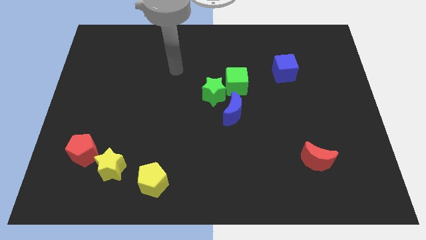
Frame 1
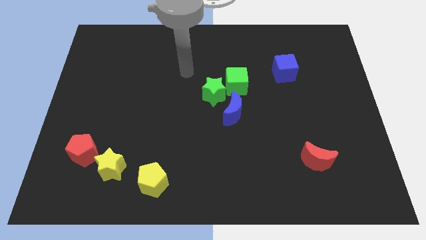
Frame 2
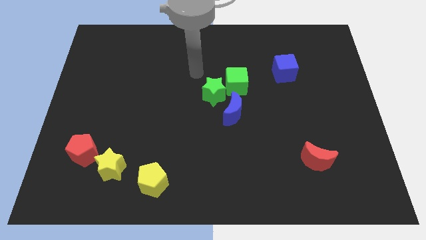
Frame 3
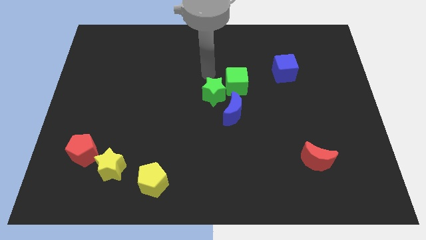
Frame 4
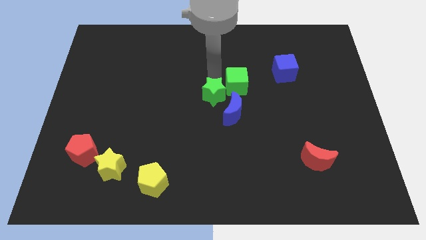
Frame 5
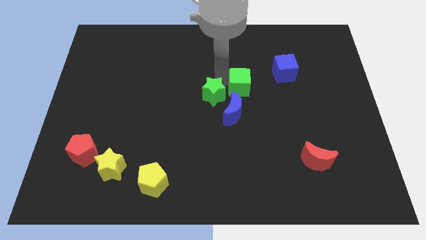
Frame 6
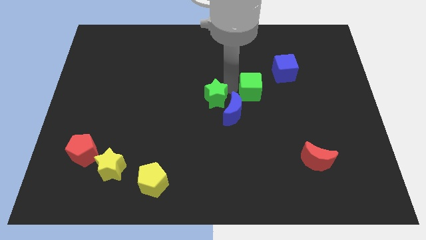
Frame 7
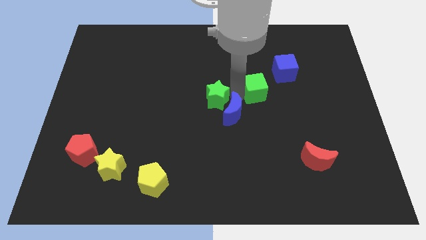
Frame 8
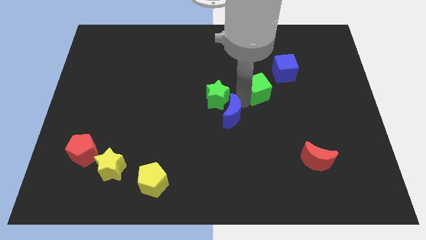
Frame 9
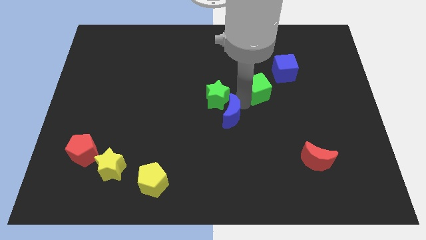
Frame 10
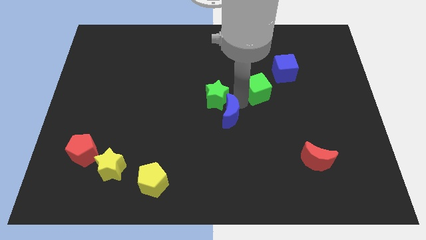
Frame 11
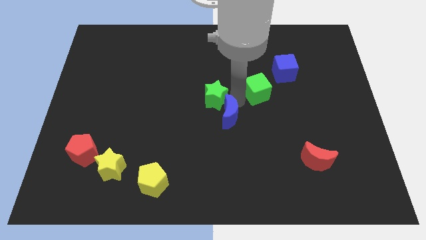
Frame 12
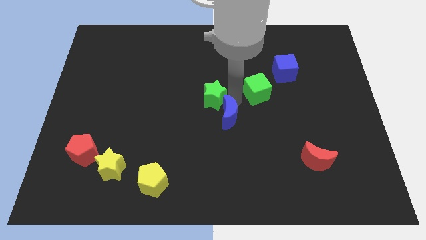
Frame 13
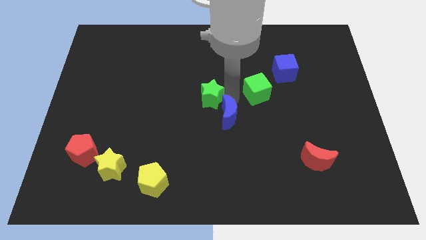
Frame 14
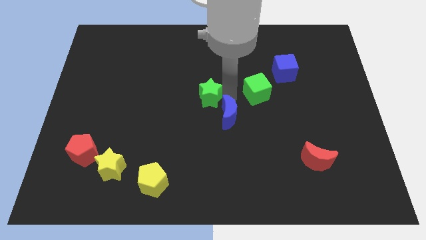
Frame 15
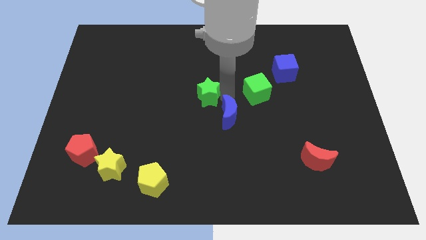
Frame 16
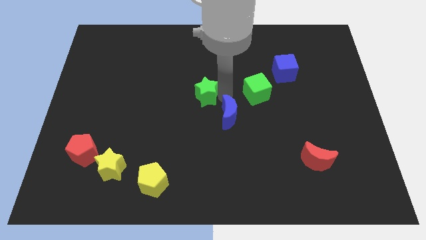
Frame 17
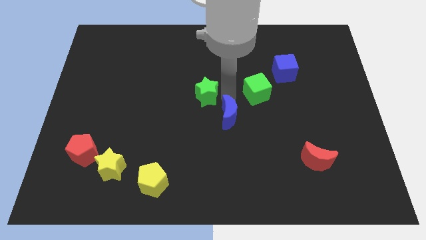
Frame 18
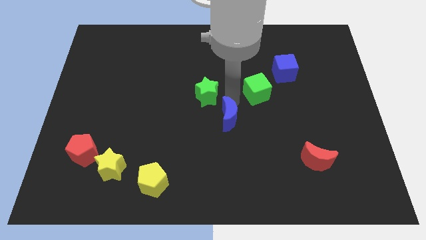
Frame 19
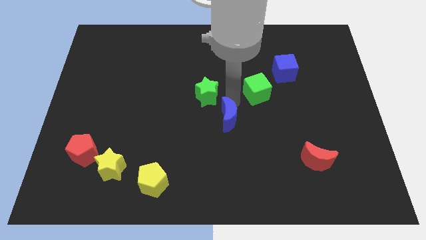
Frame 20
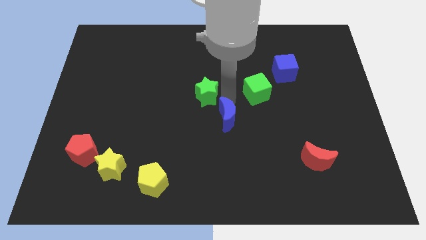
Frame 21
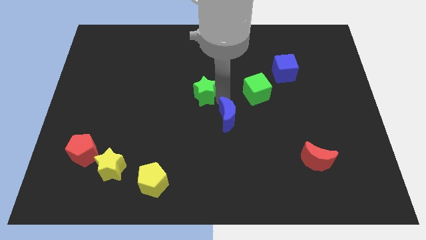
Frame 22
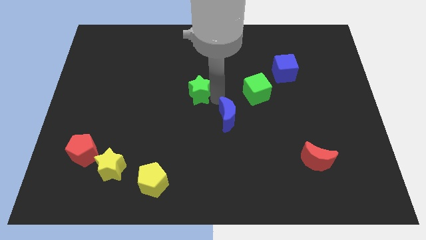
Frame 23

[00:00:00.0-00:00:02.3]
separate the green star from the green cube and blue moon

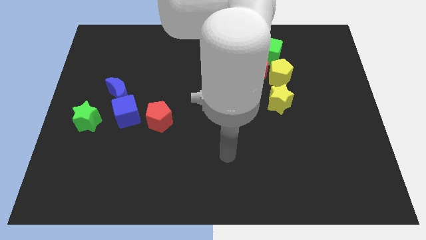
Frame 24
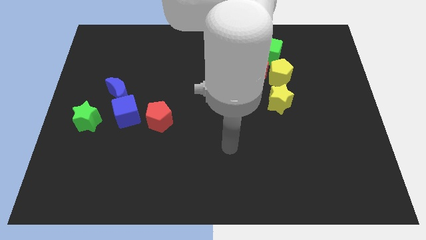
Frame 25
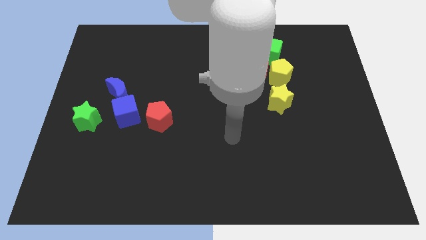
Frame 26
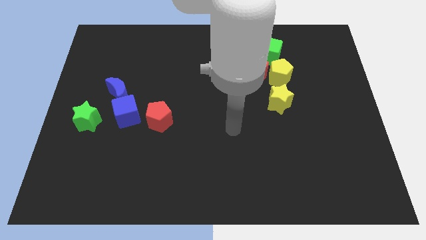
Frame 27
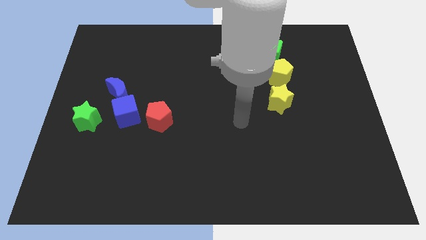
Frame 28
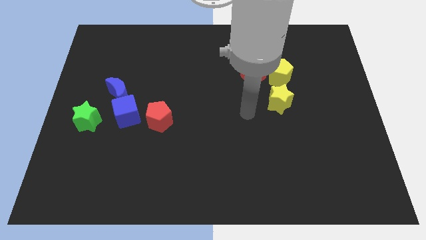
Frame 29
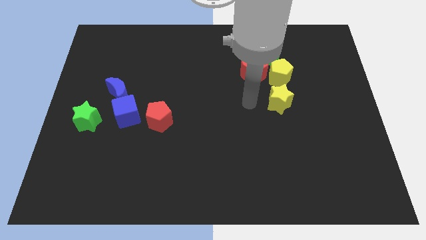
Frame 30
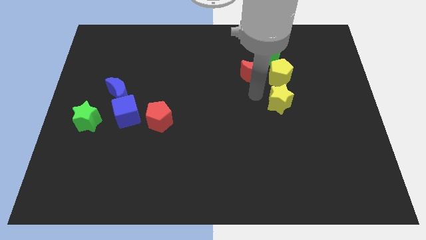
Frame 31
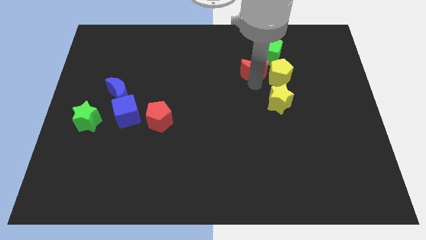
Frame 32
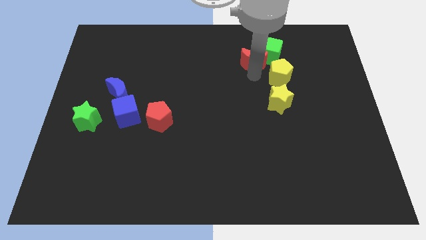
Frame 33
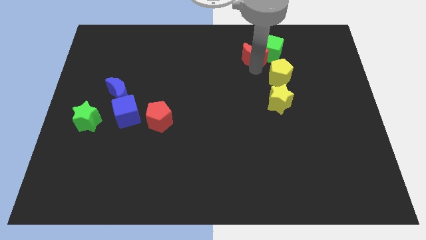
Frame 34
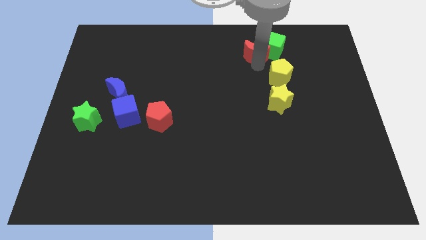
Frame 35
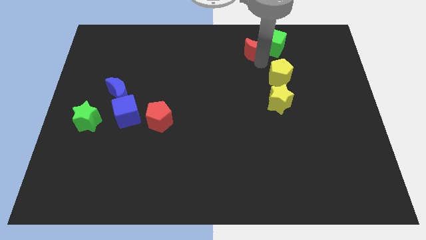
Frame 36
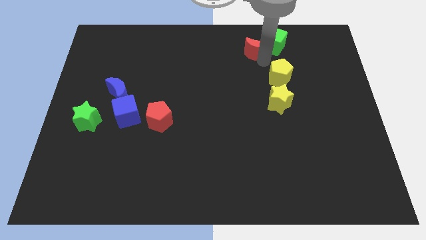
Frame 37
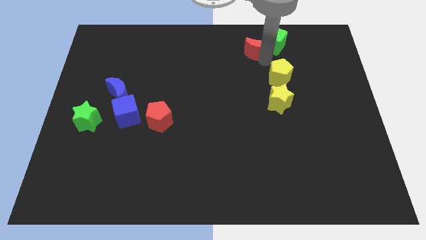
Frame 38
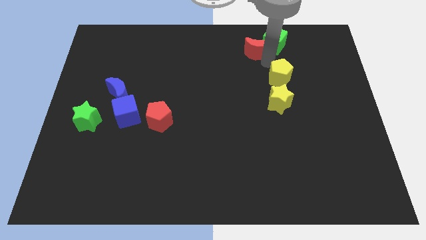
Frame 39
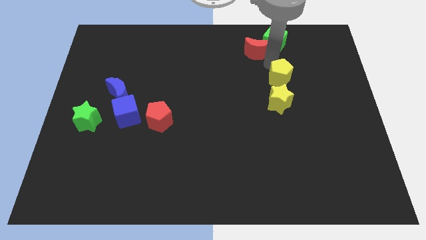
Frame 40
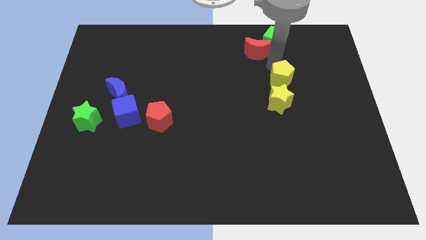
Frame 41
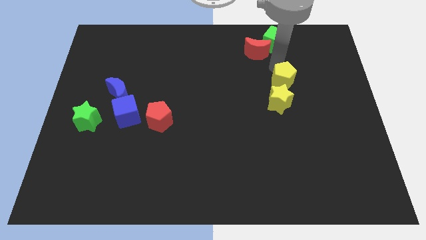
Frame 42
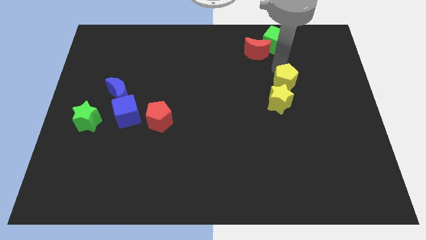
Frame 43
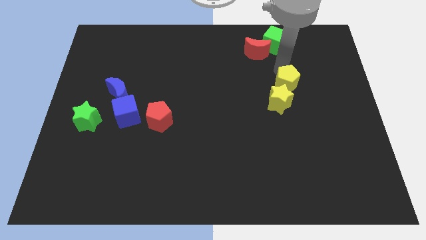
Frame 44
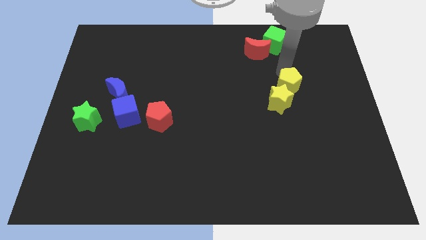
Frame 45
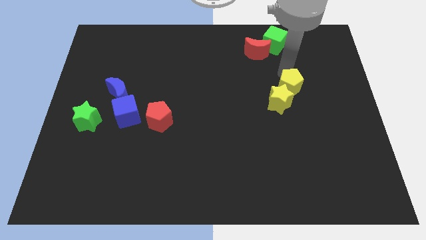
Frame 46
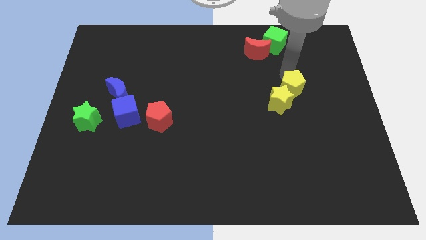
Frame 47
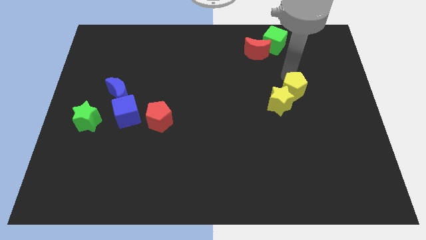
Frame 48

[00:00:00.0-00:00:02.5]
move the yellow pentagon away from the red moon, green cube, and yellow star

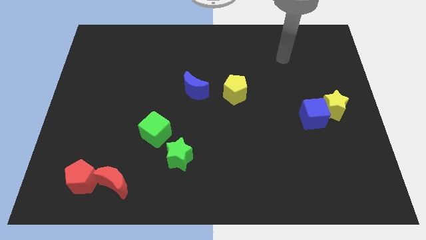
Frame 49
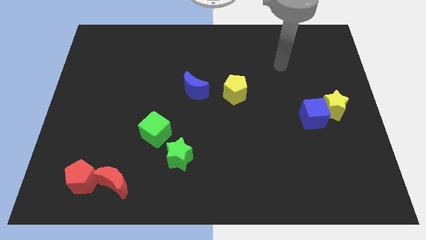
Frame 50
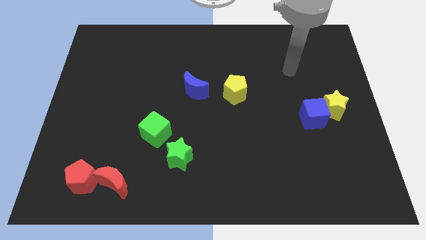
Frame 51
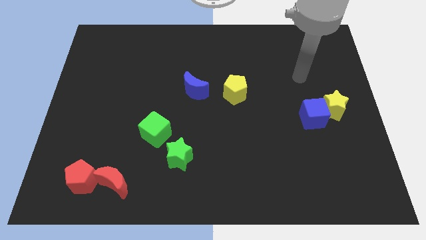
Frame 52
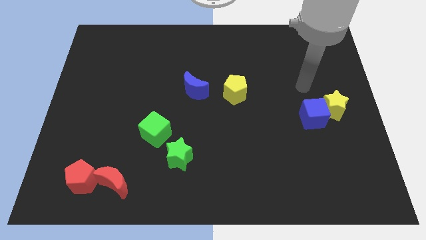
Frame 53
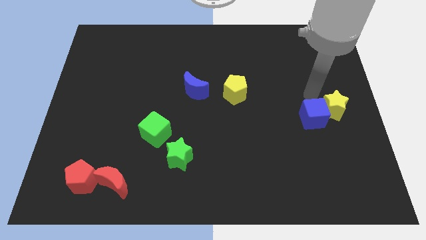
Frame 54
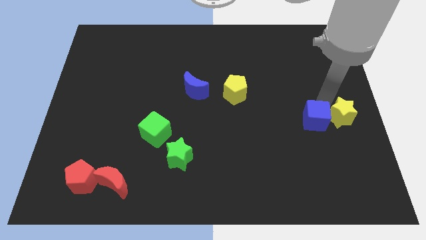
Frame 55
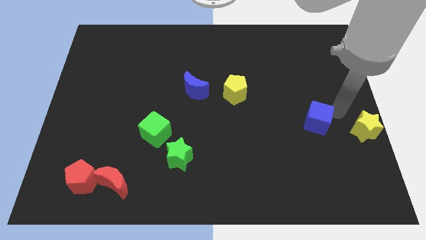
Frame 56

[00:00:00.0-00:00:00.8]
separate the blue cube from the yellow star

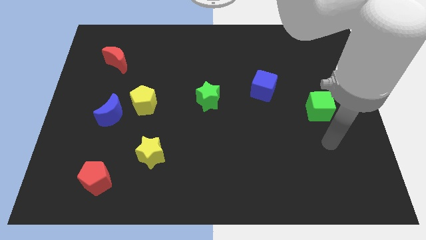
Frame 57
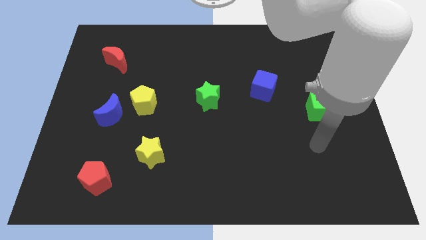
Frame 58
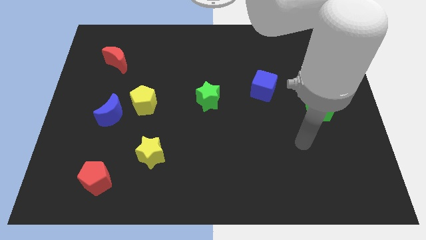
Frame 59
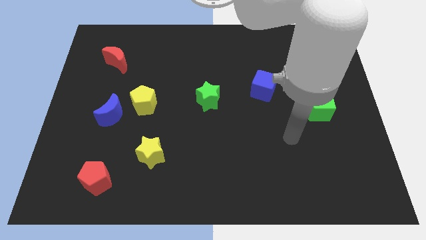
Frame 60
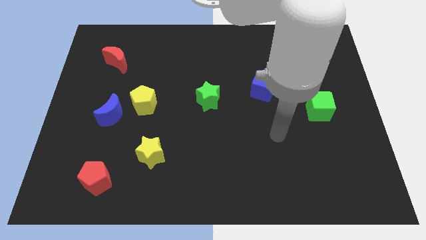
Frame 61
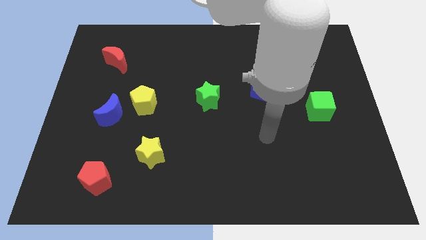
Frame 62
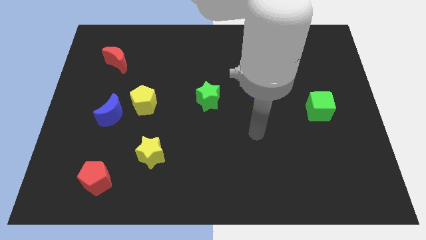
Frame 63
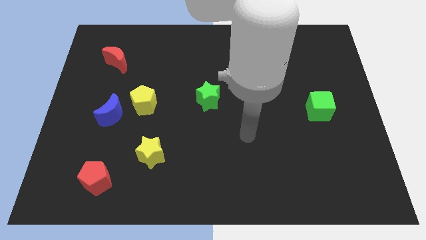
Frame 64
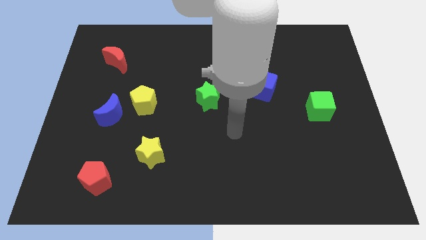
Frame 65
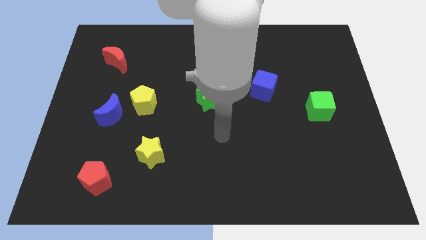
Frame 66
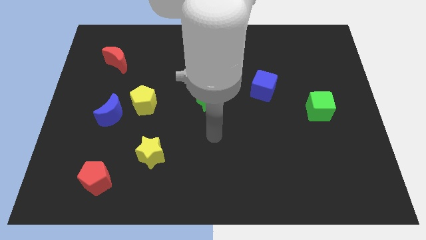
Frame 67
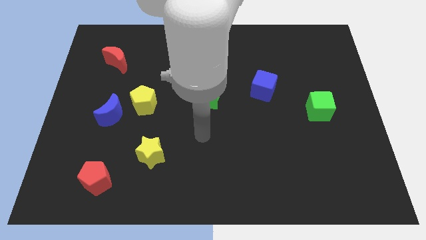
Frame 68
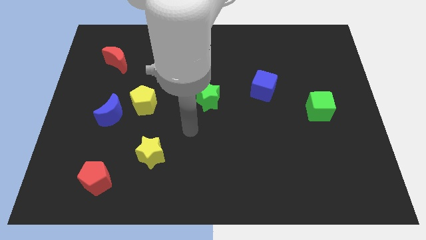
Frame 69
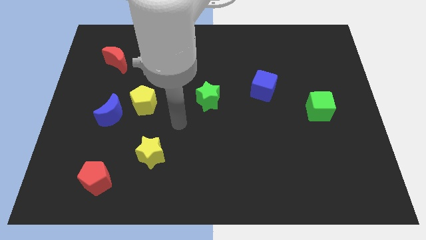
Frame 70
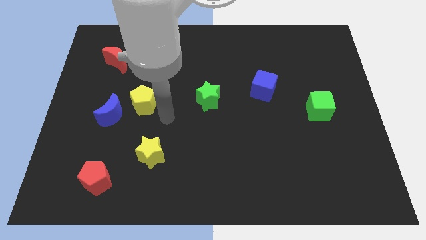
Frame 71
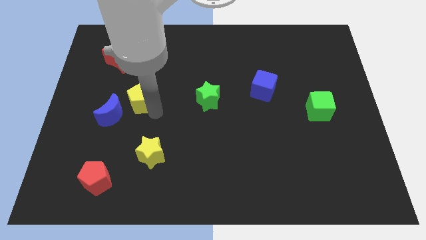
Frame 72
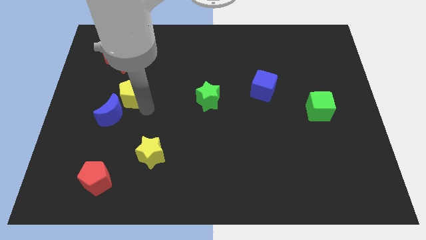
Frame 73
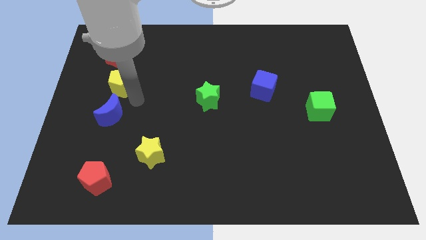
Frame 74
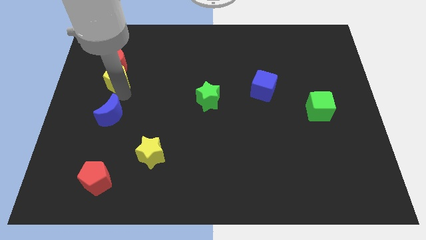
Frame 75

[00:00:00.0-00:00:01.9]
move the blue moon away from the yellow pentagon

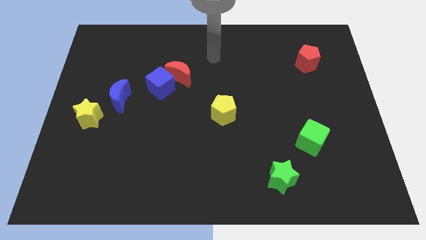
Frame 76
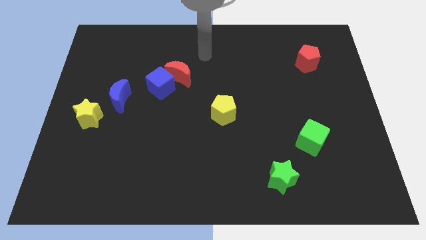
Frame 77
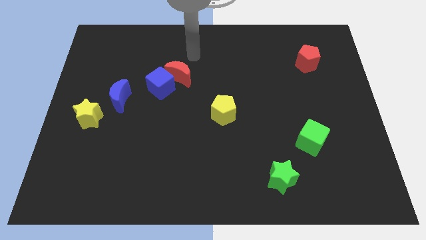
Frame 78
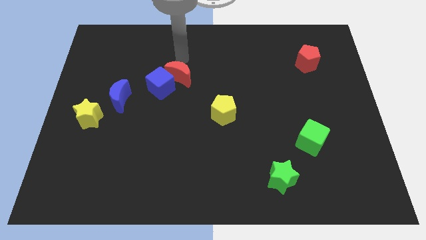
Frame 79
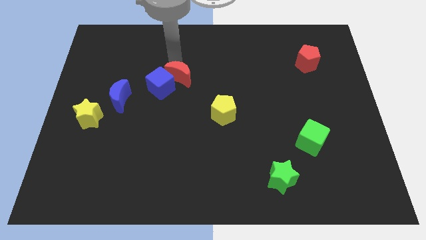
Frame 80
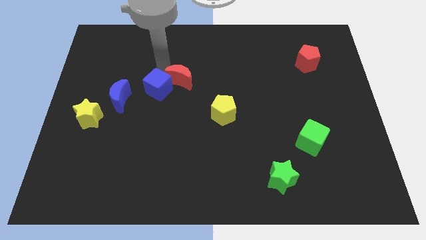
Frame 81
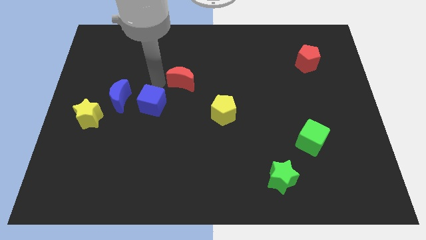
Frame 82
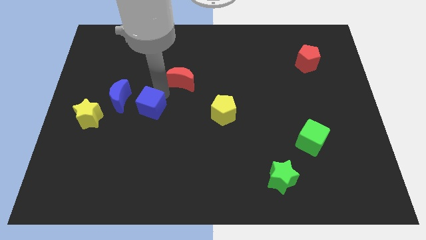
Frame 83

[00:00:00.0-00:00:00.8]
move the red moon away from the blue cube

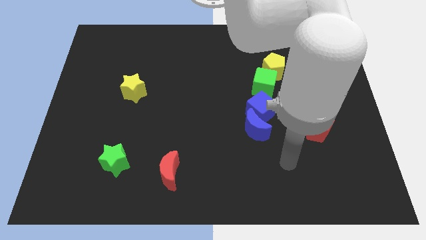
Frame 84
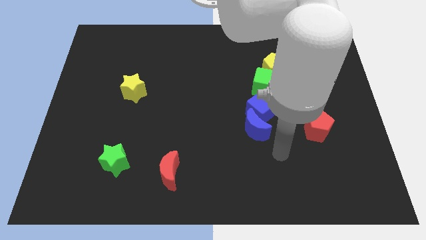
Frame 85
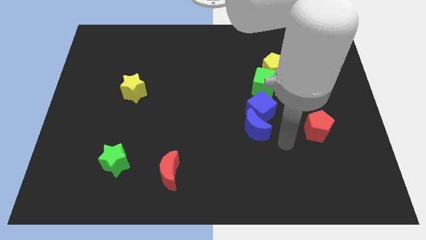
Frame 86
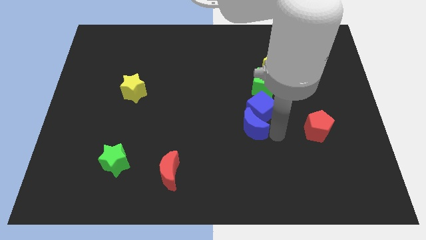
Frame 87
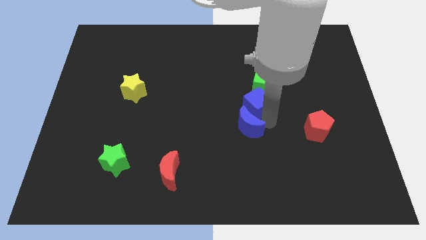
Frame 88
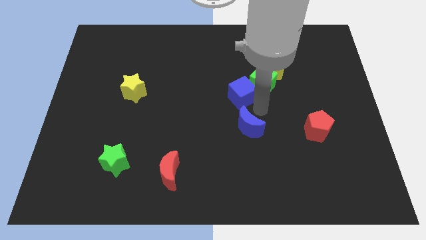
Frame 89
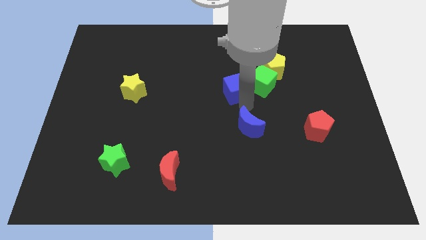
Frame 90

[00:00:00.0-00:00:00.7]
separate the blue moon from the blue cube

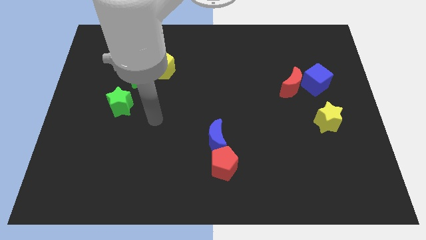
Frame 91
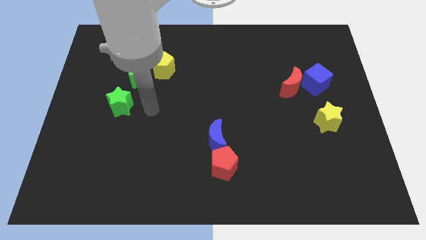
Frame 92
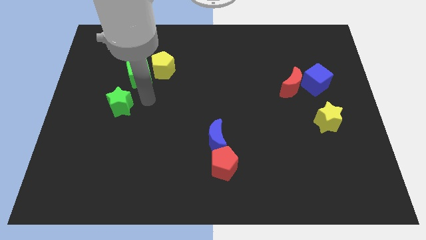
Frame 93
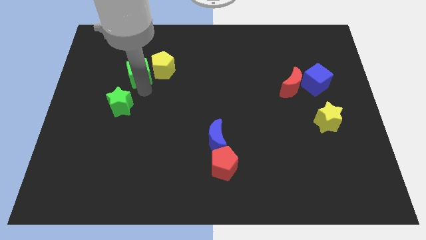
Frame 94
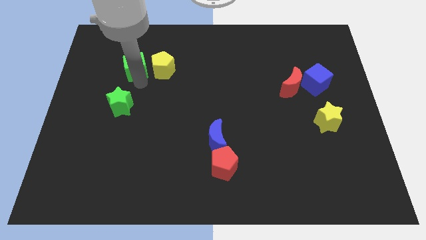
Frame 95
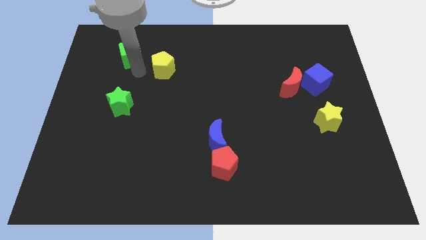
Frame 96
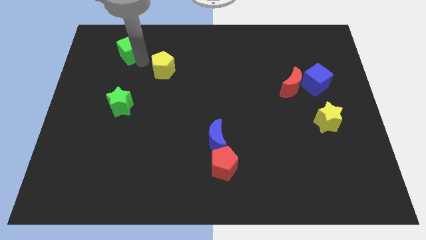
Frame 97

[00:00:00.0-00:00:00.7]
move the yellow pentagon away from the green cube
